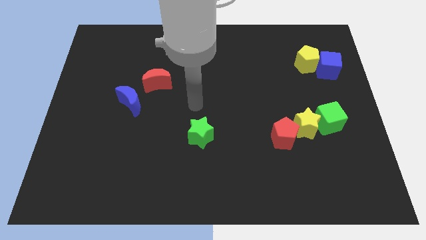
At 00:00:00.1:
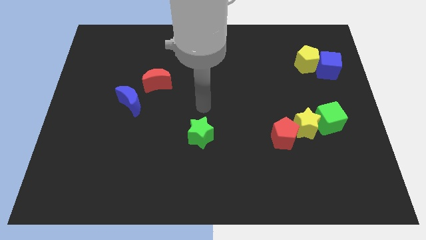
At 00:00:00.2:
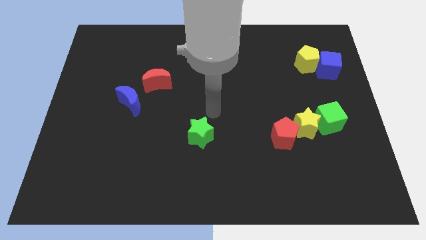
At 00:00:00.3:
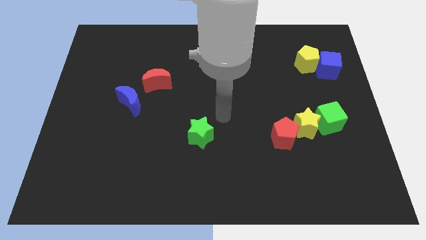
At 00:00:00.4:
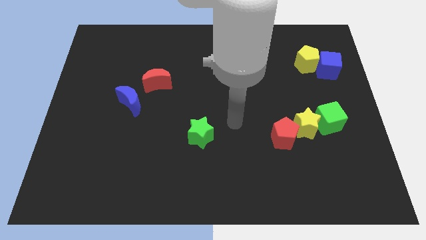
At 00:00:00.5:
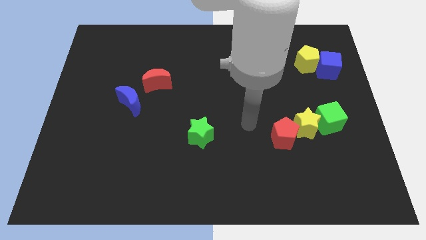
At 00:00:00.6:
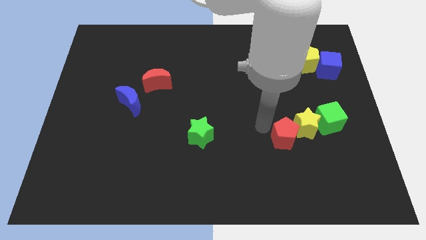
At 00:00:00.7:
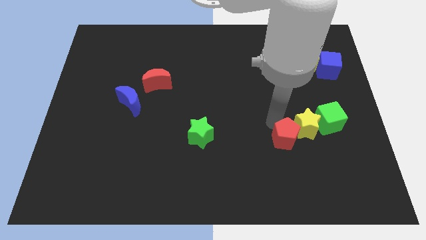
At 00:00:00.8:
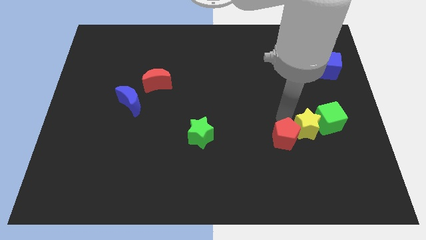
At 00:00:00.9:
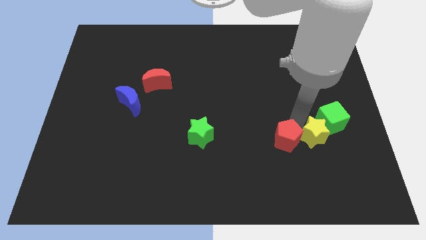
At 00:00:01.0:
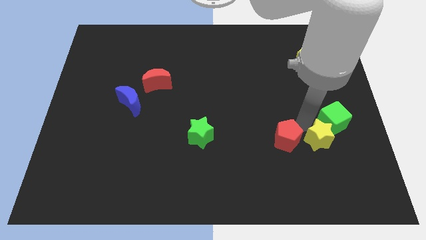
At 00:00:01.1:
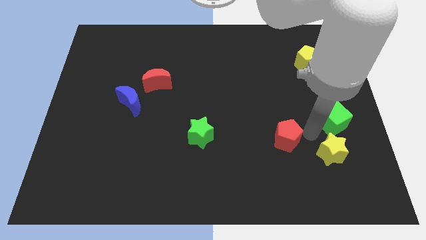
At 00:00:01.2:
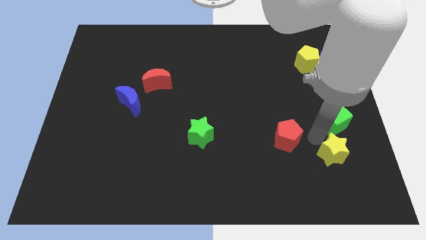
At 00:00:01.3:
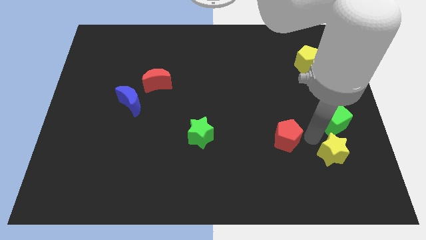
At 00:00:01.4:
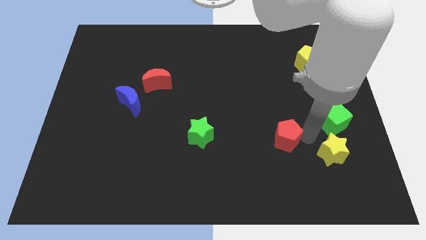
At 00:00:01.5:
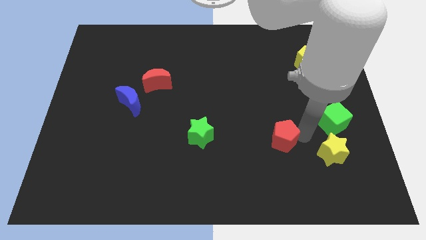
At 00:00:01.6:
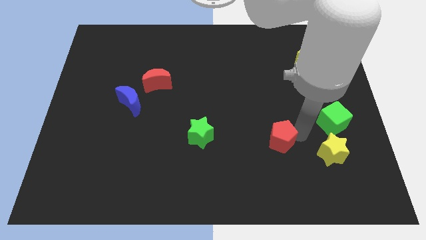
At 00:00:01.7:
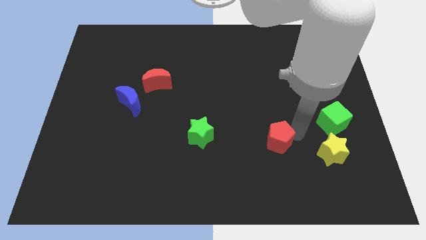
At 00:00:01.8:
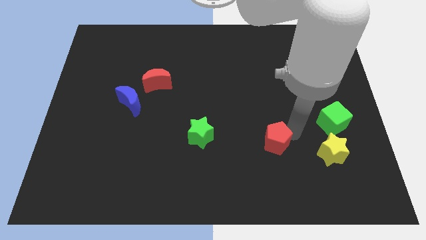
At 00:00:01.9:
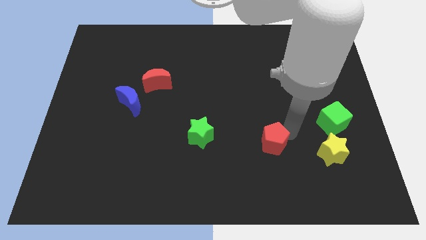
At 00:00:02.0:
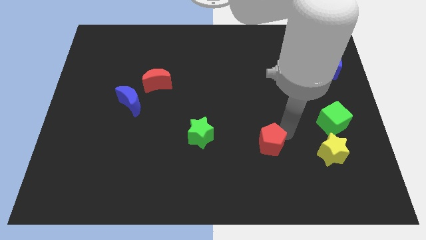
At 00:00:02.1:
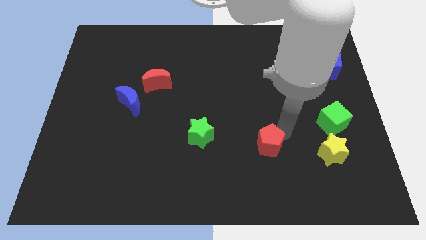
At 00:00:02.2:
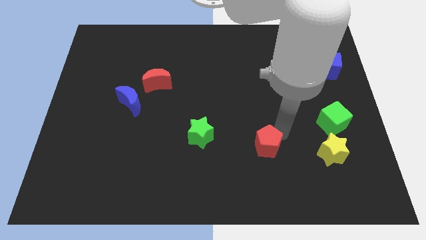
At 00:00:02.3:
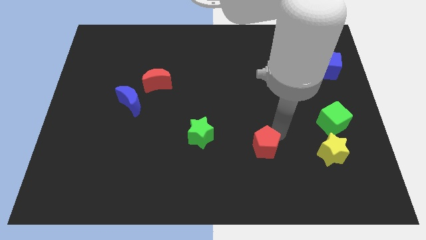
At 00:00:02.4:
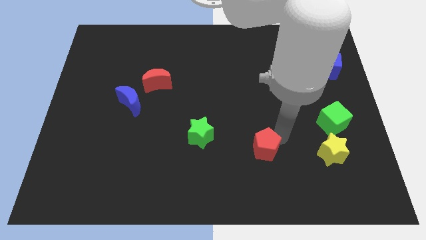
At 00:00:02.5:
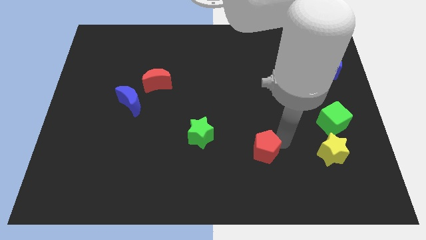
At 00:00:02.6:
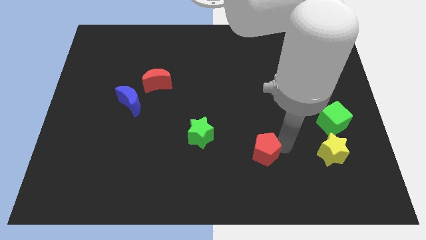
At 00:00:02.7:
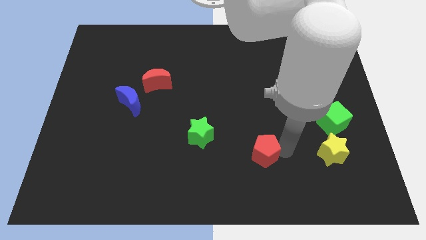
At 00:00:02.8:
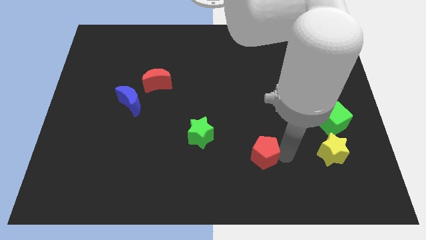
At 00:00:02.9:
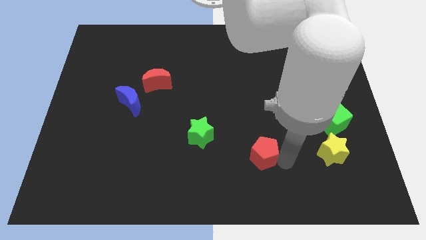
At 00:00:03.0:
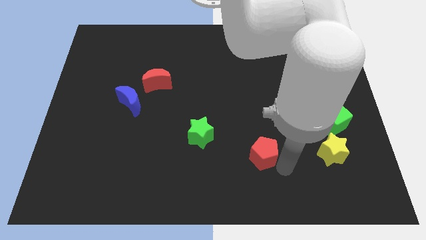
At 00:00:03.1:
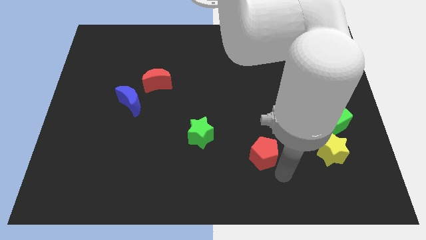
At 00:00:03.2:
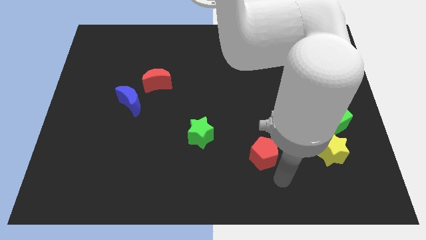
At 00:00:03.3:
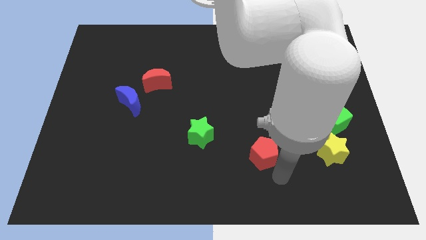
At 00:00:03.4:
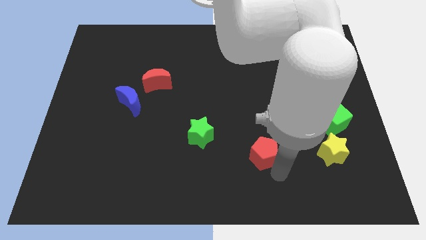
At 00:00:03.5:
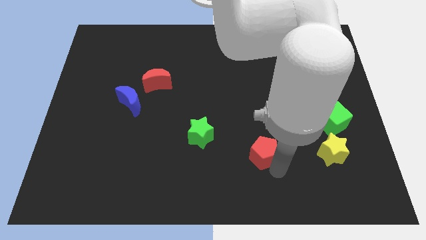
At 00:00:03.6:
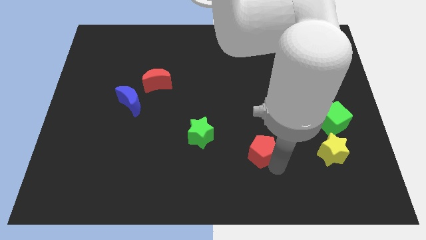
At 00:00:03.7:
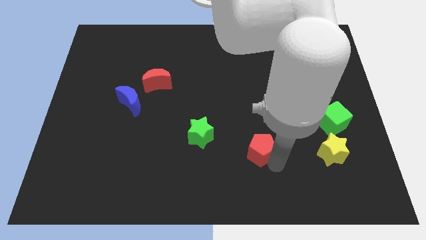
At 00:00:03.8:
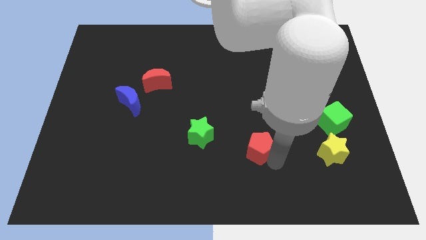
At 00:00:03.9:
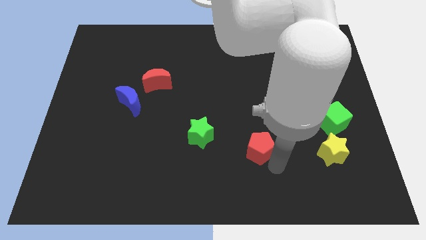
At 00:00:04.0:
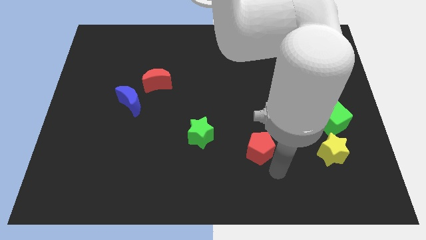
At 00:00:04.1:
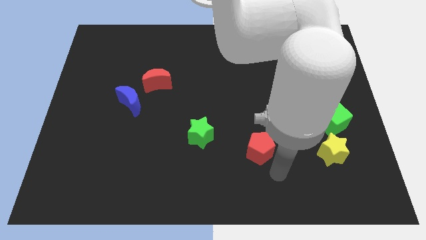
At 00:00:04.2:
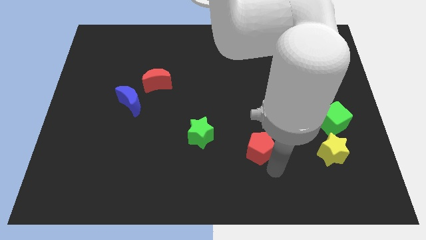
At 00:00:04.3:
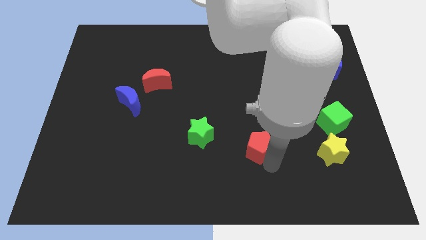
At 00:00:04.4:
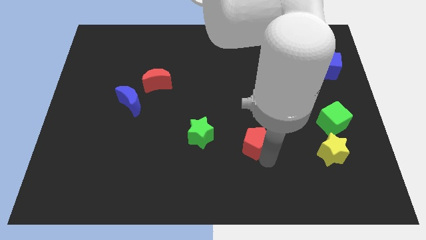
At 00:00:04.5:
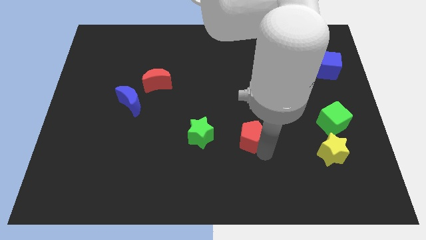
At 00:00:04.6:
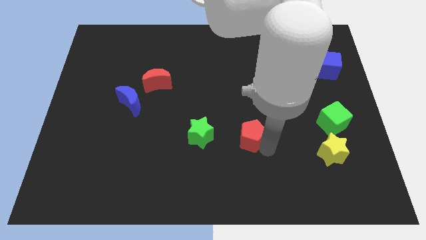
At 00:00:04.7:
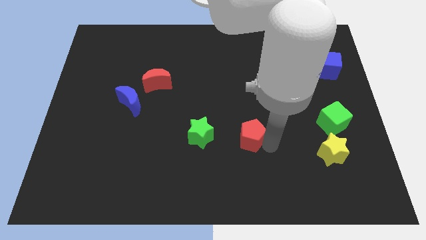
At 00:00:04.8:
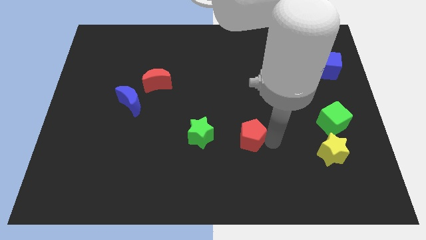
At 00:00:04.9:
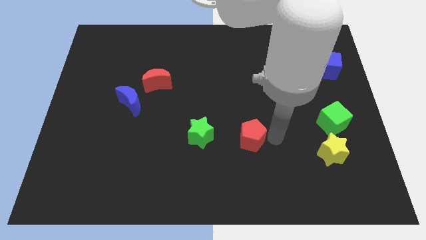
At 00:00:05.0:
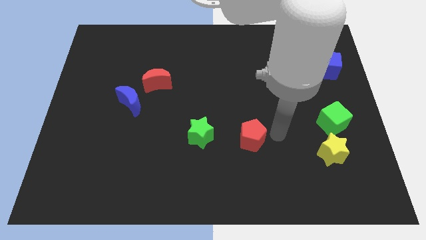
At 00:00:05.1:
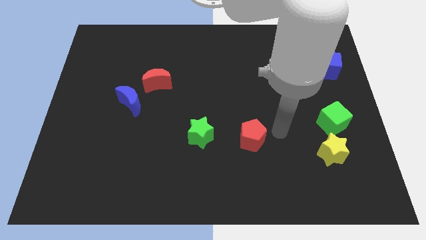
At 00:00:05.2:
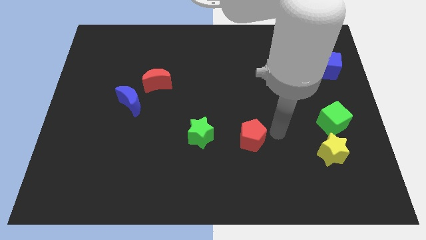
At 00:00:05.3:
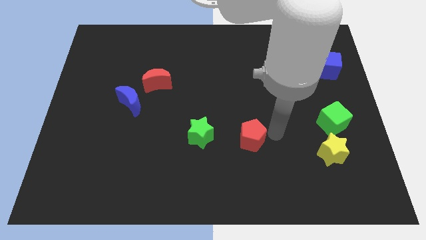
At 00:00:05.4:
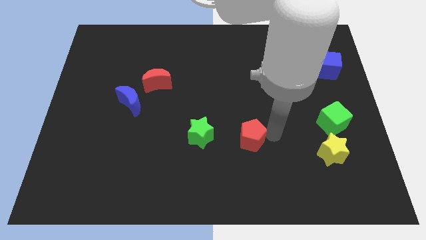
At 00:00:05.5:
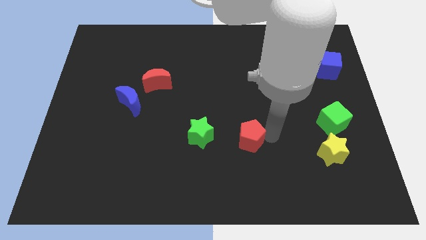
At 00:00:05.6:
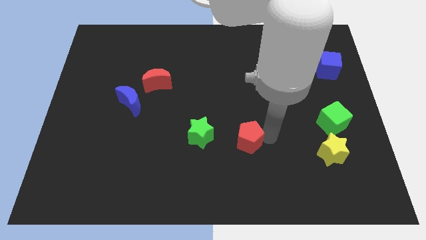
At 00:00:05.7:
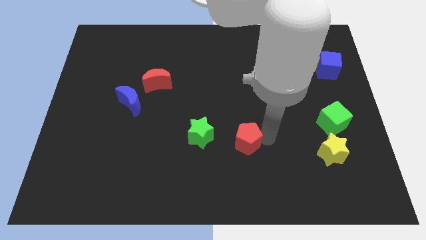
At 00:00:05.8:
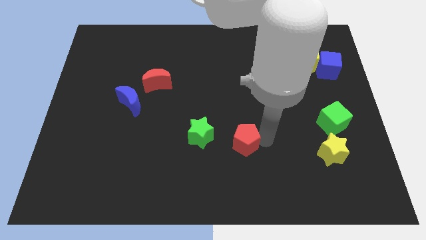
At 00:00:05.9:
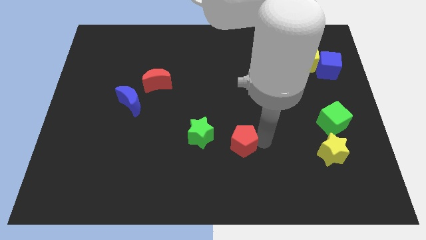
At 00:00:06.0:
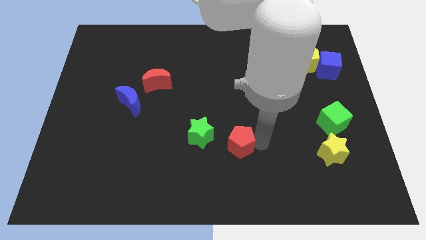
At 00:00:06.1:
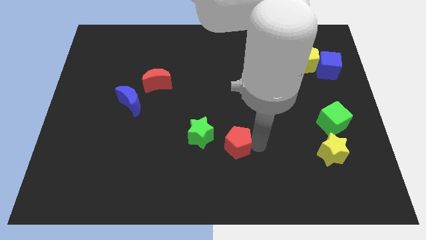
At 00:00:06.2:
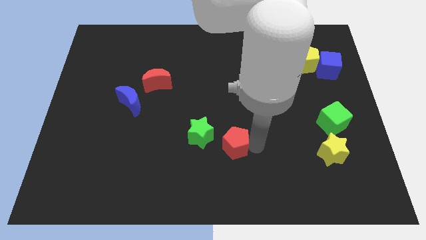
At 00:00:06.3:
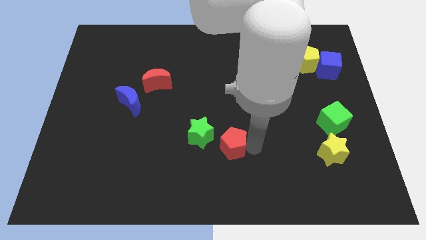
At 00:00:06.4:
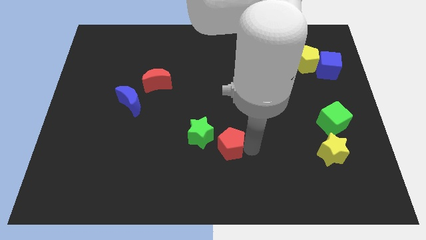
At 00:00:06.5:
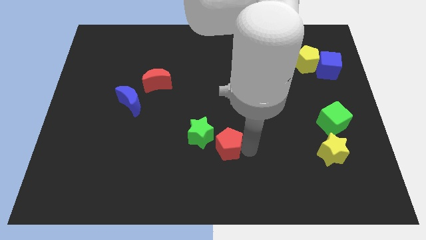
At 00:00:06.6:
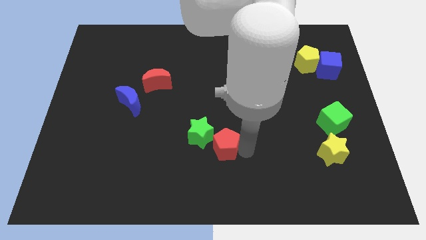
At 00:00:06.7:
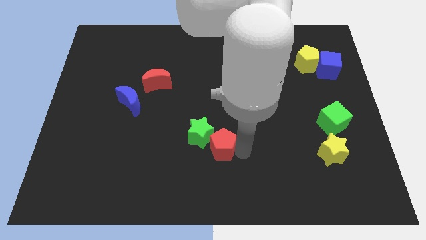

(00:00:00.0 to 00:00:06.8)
slide the red pentagon towards the green star
